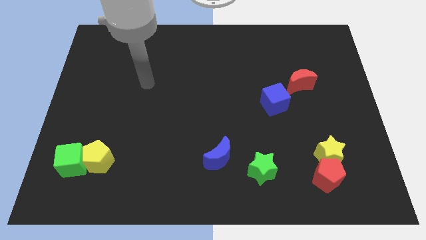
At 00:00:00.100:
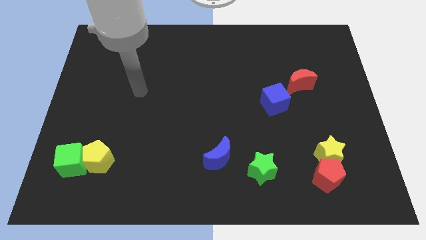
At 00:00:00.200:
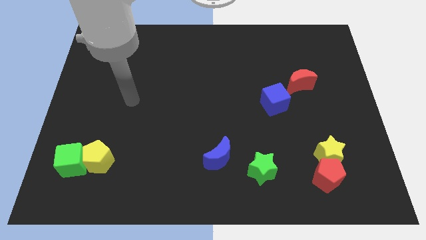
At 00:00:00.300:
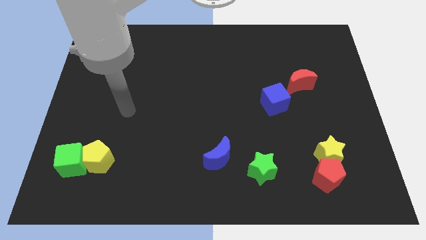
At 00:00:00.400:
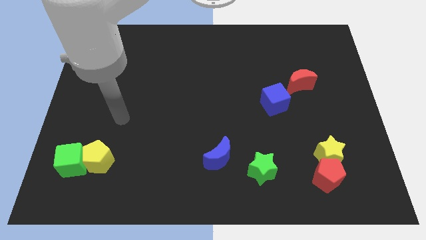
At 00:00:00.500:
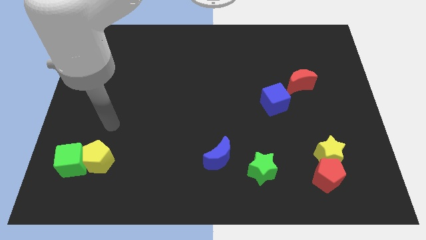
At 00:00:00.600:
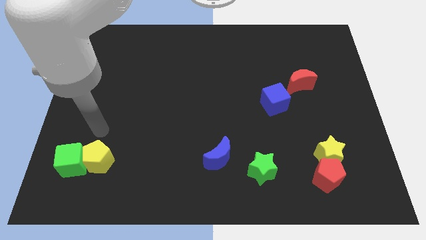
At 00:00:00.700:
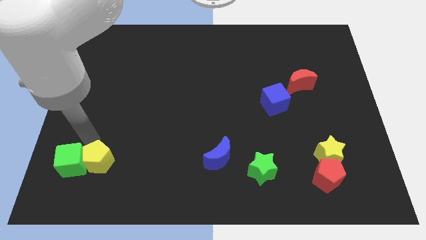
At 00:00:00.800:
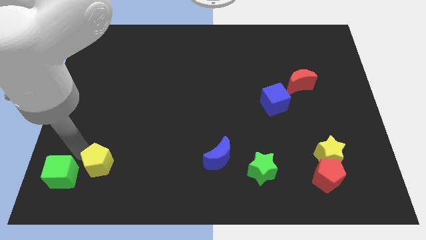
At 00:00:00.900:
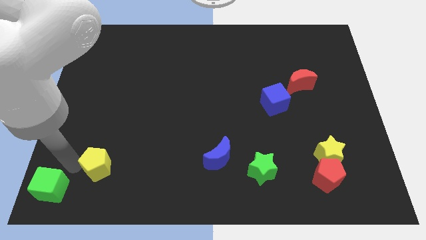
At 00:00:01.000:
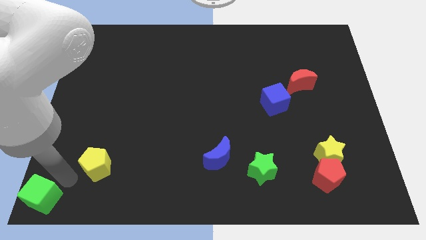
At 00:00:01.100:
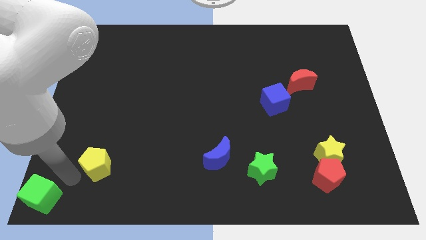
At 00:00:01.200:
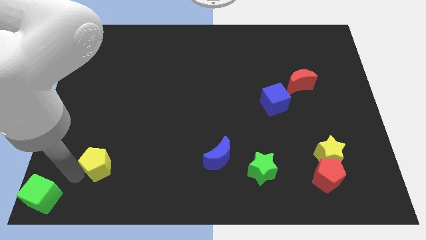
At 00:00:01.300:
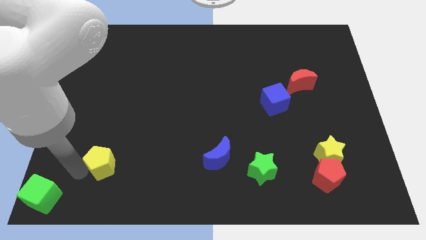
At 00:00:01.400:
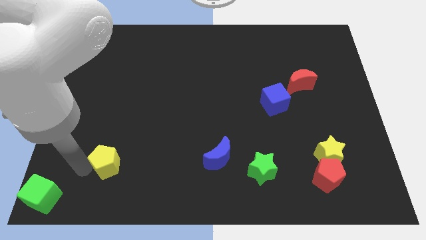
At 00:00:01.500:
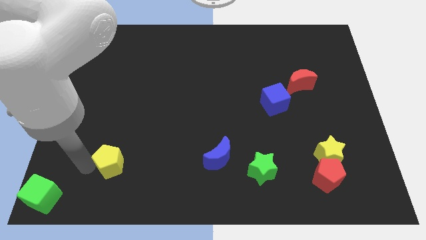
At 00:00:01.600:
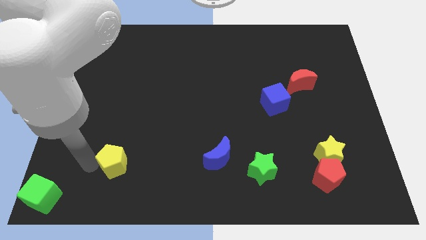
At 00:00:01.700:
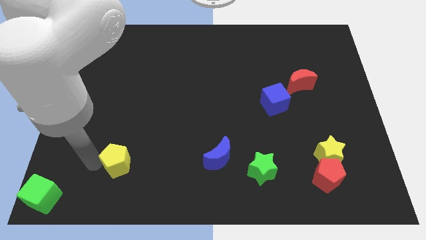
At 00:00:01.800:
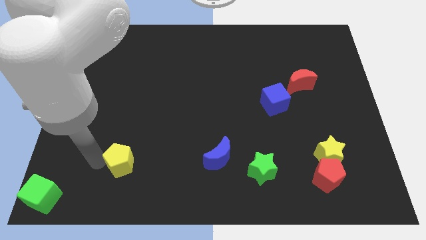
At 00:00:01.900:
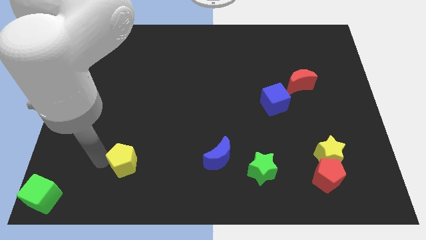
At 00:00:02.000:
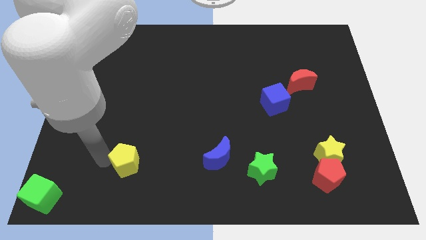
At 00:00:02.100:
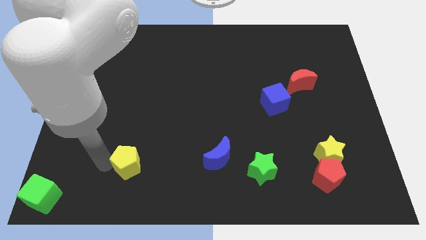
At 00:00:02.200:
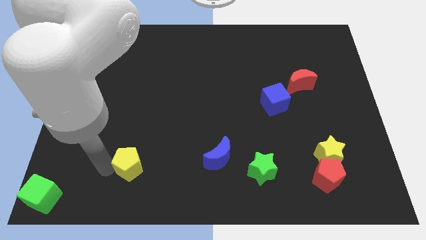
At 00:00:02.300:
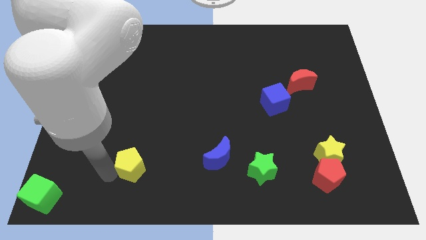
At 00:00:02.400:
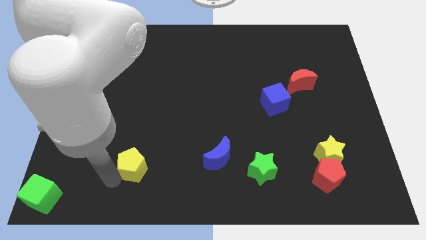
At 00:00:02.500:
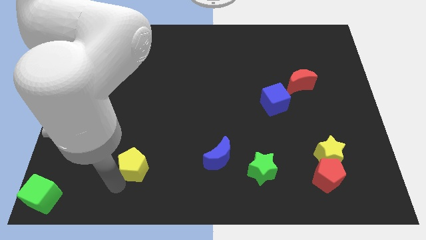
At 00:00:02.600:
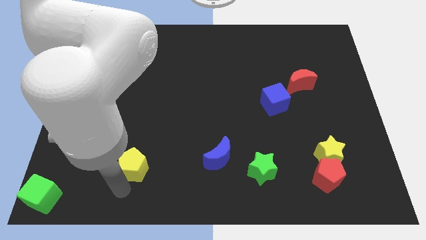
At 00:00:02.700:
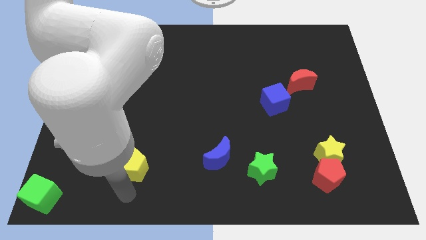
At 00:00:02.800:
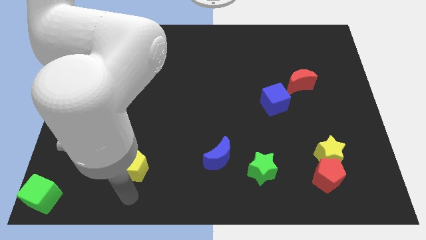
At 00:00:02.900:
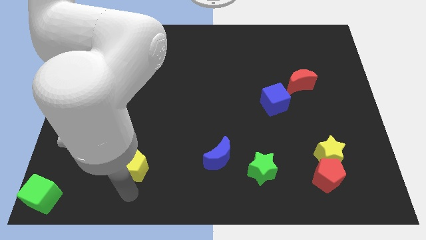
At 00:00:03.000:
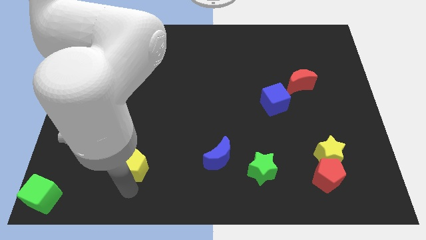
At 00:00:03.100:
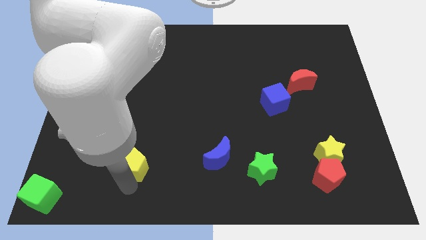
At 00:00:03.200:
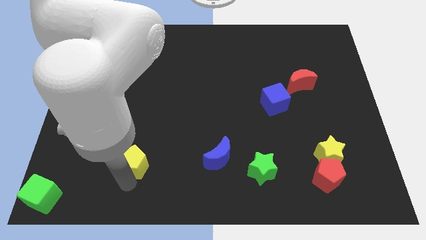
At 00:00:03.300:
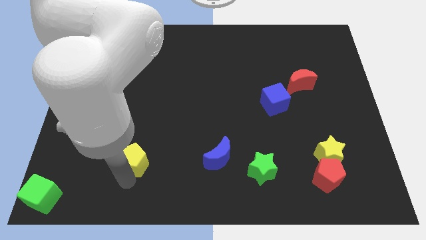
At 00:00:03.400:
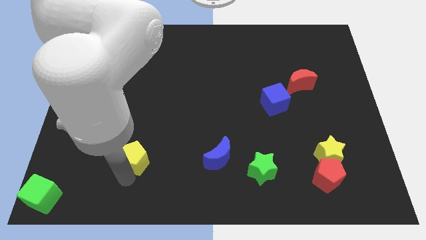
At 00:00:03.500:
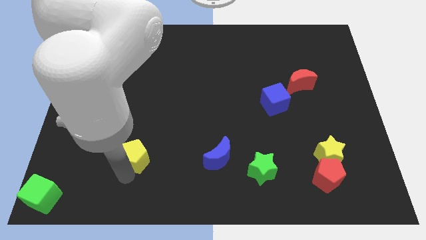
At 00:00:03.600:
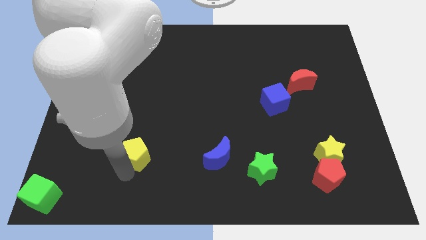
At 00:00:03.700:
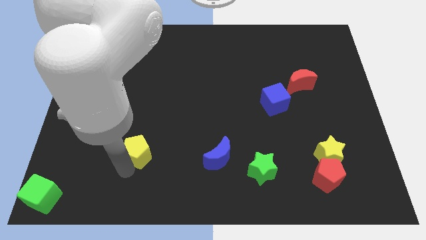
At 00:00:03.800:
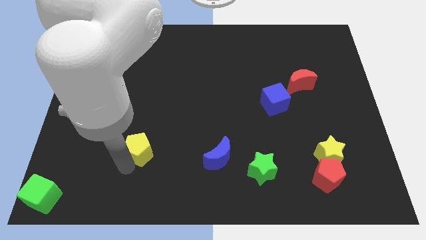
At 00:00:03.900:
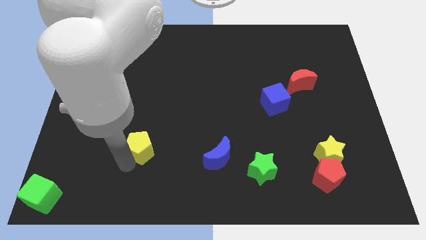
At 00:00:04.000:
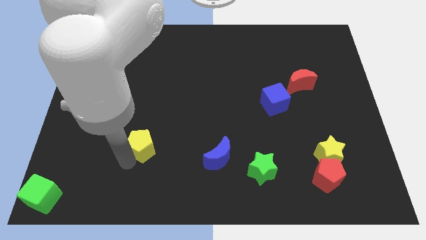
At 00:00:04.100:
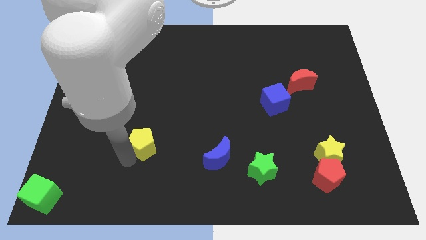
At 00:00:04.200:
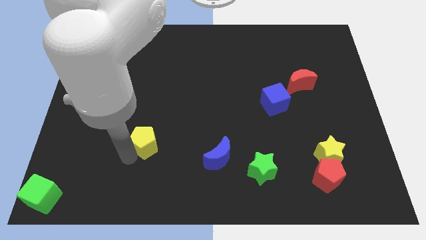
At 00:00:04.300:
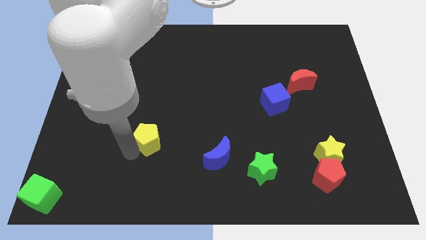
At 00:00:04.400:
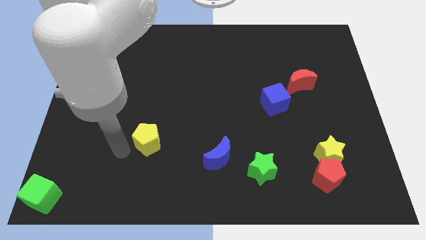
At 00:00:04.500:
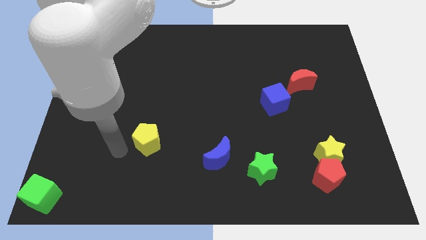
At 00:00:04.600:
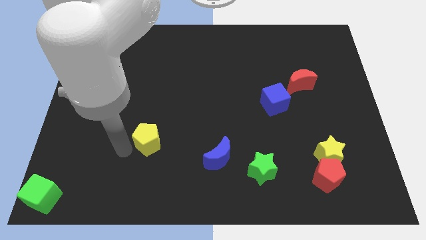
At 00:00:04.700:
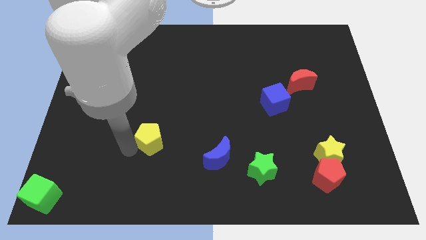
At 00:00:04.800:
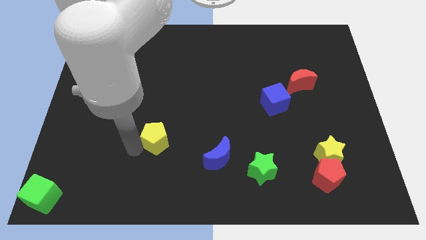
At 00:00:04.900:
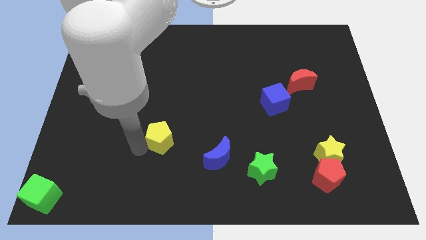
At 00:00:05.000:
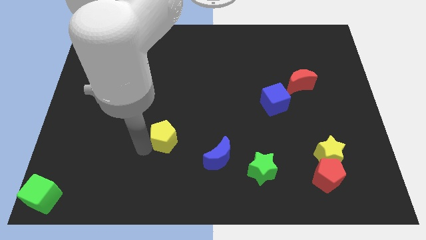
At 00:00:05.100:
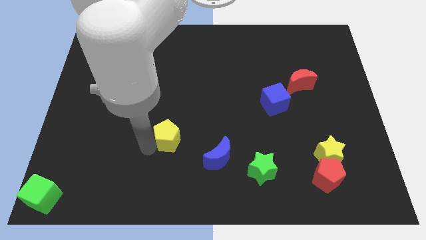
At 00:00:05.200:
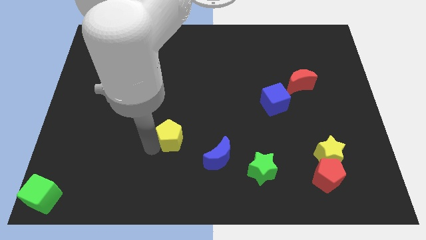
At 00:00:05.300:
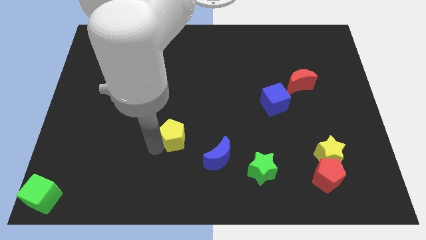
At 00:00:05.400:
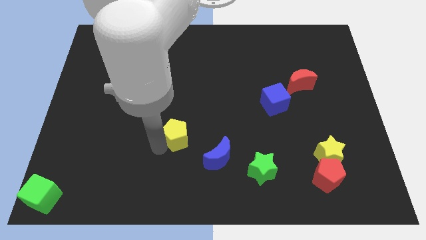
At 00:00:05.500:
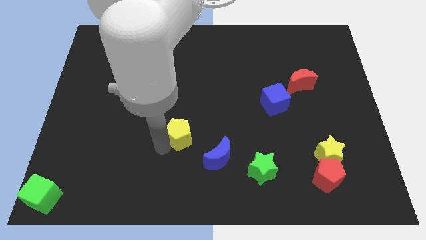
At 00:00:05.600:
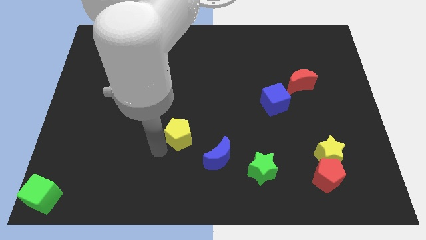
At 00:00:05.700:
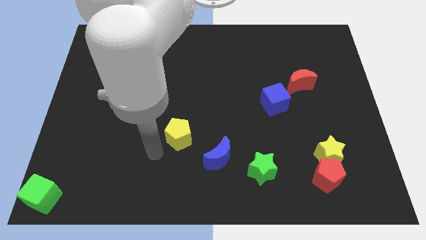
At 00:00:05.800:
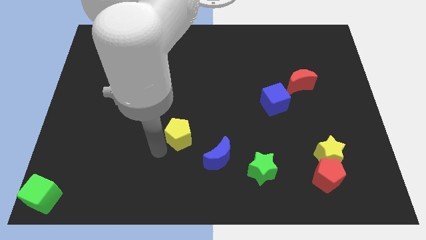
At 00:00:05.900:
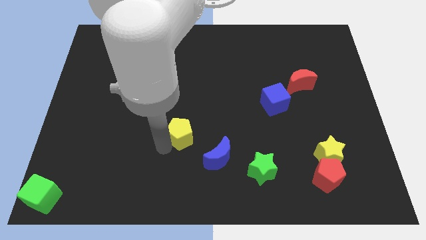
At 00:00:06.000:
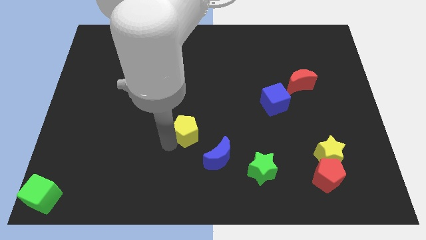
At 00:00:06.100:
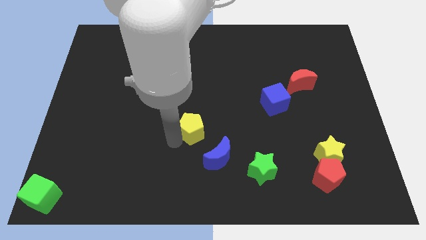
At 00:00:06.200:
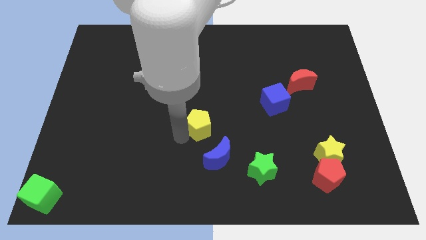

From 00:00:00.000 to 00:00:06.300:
slide the yellow pentagon to the top of the blue moon
